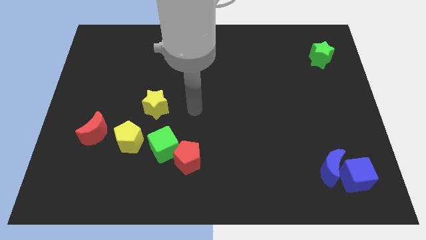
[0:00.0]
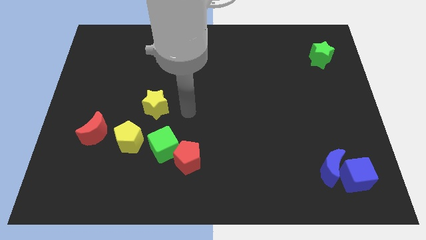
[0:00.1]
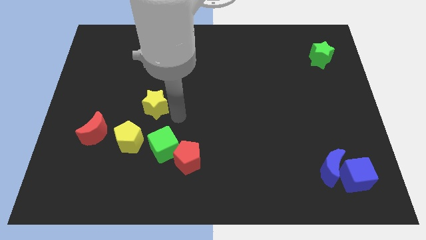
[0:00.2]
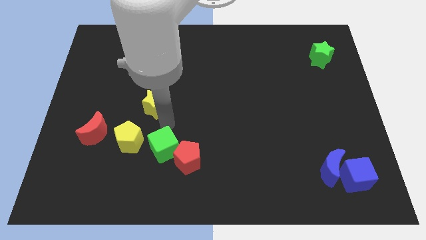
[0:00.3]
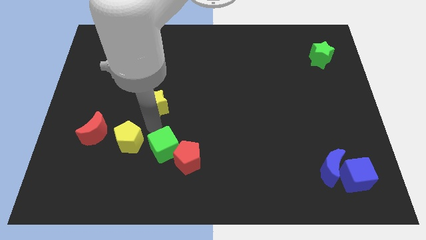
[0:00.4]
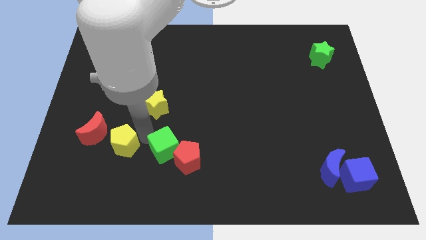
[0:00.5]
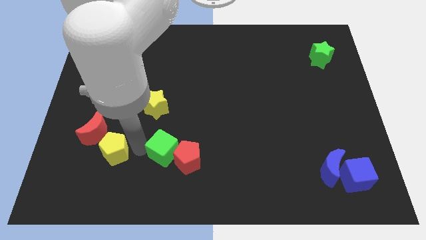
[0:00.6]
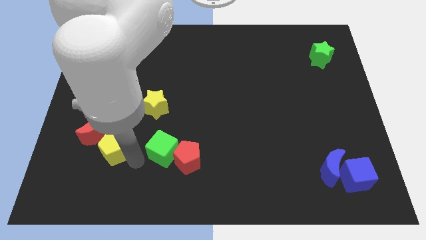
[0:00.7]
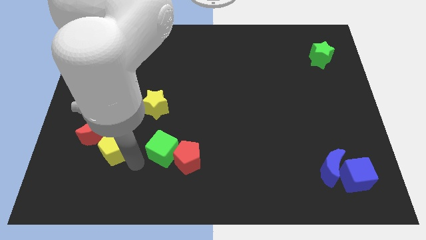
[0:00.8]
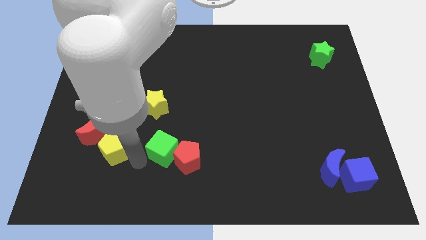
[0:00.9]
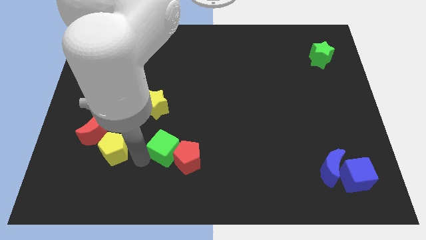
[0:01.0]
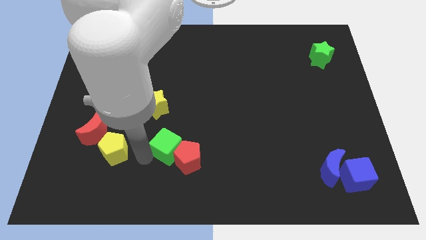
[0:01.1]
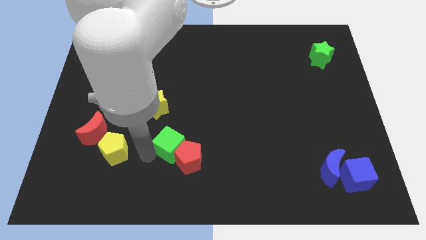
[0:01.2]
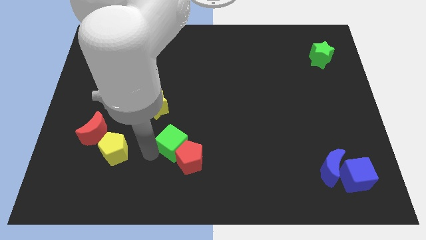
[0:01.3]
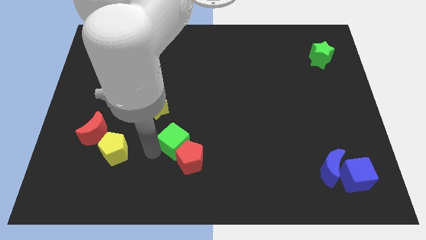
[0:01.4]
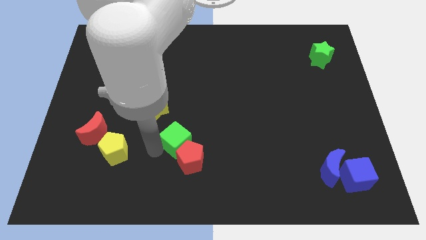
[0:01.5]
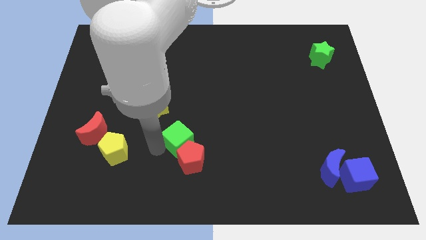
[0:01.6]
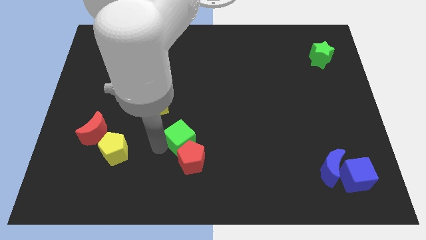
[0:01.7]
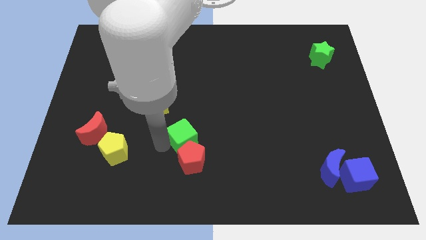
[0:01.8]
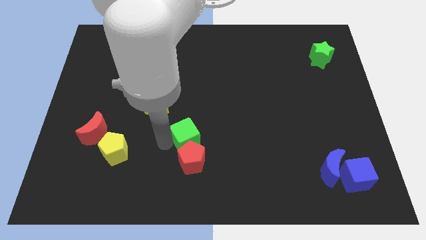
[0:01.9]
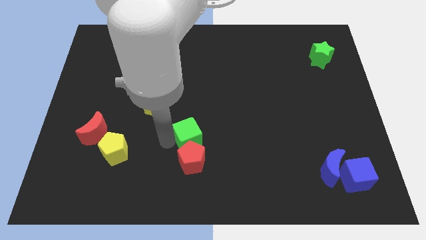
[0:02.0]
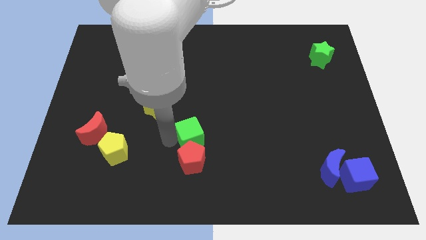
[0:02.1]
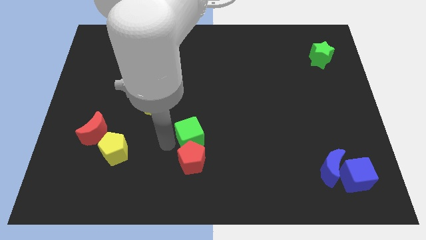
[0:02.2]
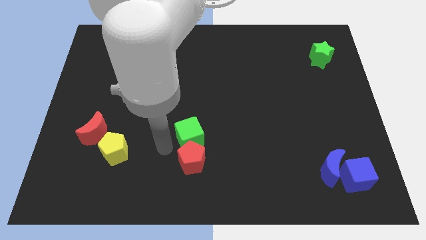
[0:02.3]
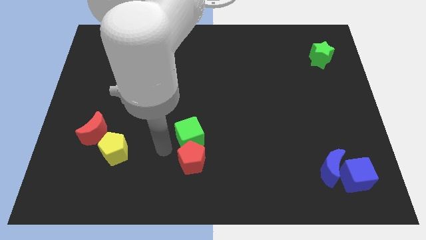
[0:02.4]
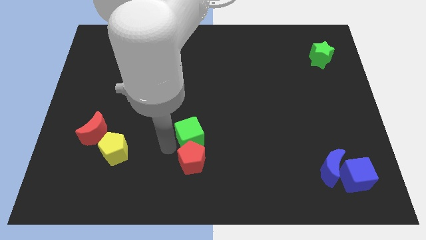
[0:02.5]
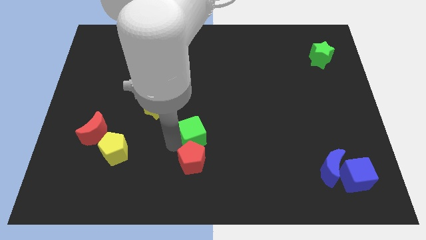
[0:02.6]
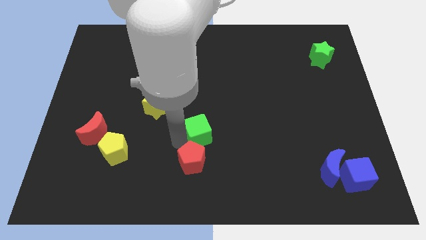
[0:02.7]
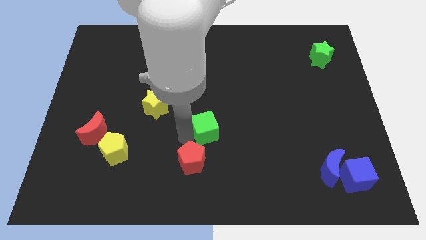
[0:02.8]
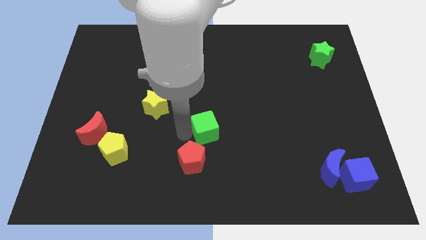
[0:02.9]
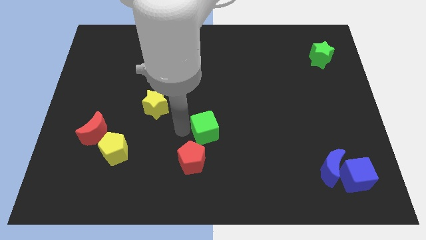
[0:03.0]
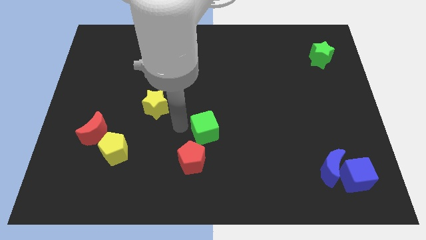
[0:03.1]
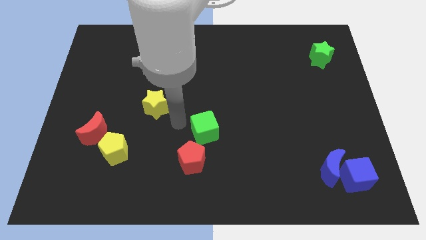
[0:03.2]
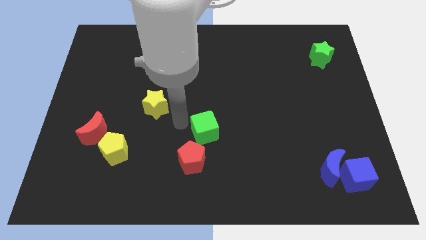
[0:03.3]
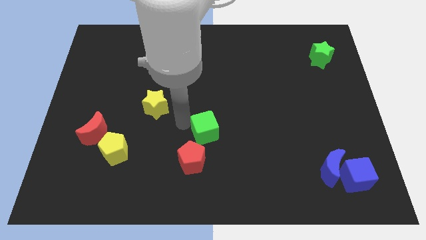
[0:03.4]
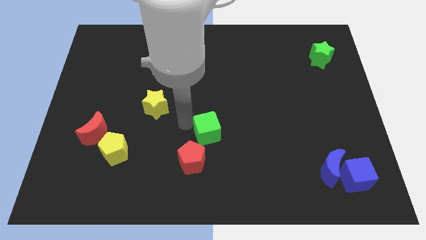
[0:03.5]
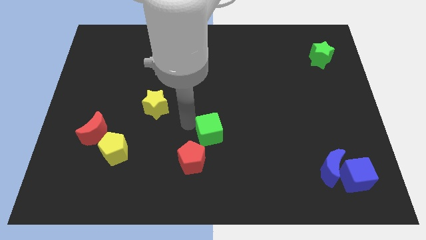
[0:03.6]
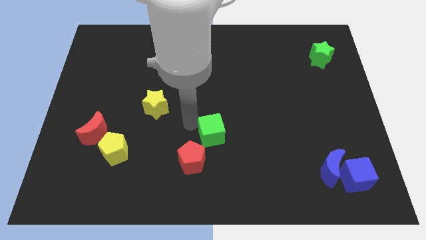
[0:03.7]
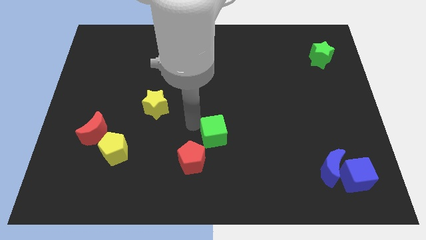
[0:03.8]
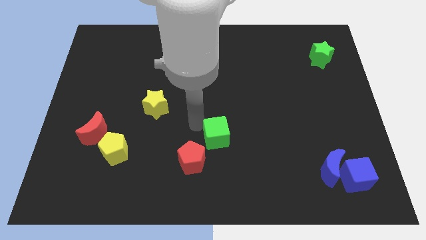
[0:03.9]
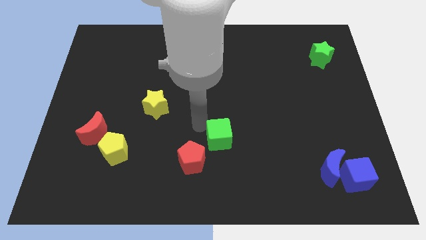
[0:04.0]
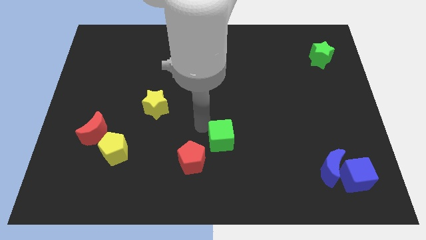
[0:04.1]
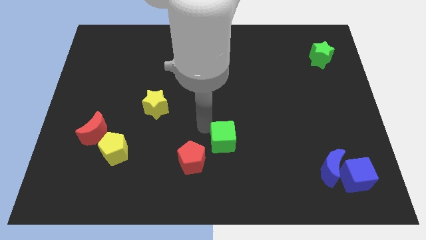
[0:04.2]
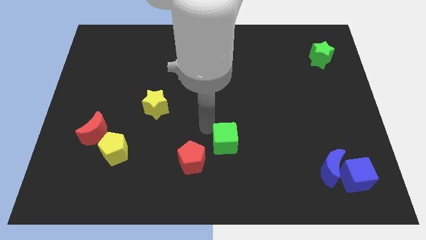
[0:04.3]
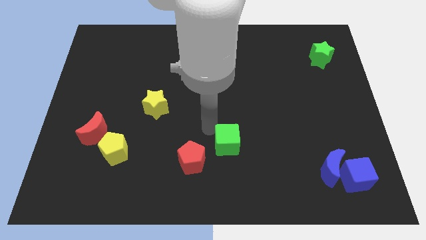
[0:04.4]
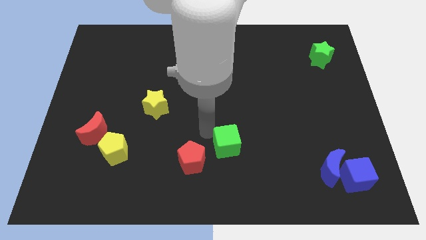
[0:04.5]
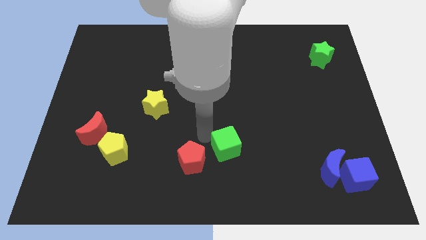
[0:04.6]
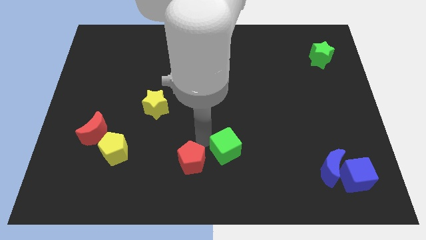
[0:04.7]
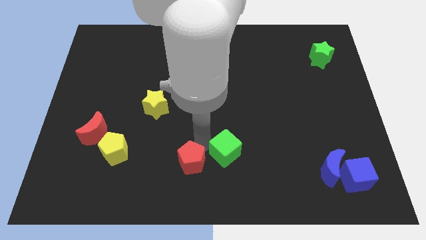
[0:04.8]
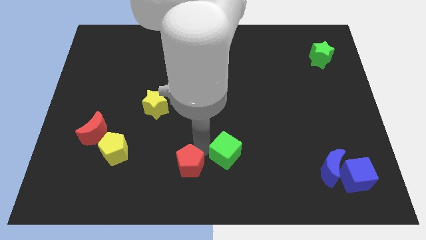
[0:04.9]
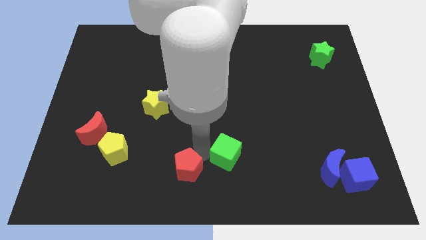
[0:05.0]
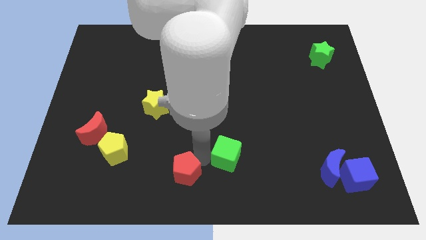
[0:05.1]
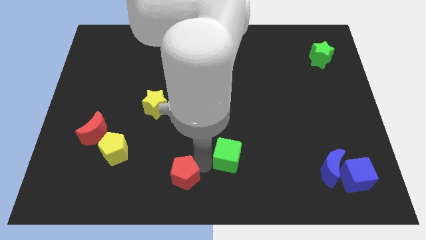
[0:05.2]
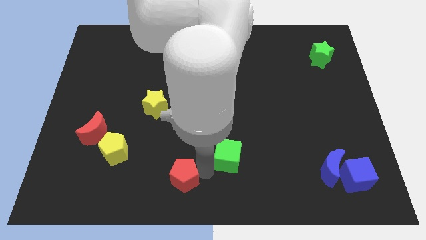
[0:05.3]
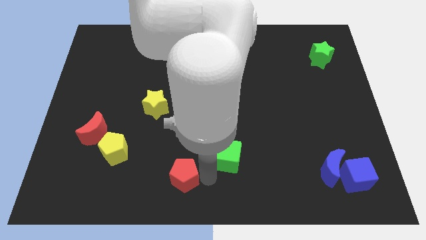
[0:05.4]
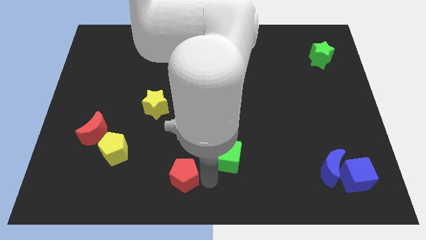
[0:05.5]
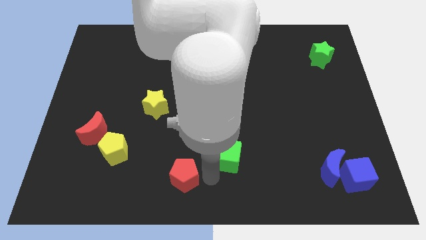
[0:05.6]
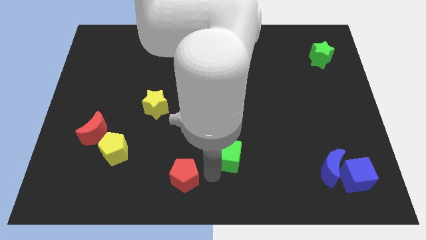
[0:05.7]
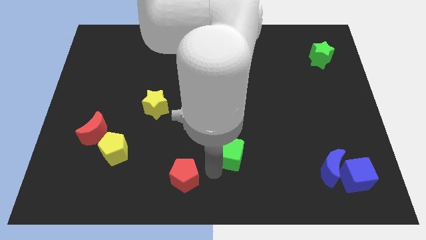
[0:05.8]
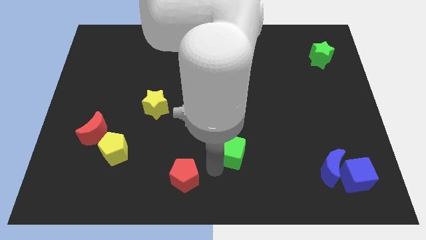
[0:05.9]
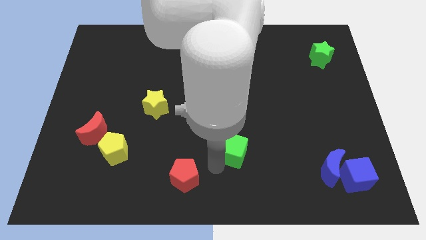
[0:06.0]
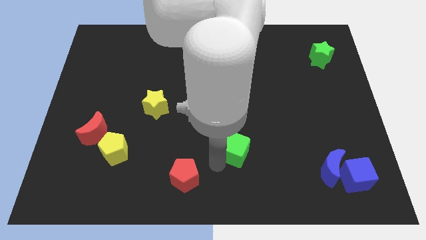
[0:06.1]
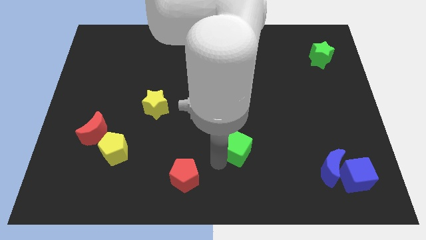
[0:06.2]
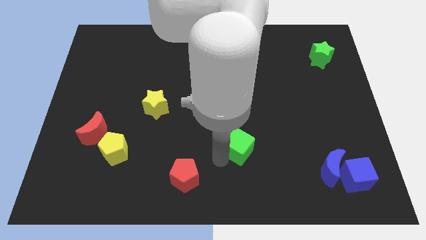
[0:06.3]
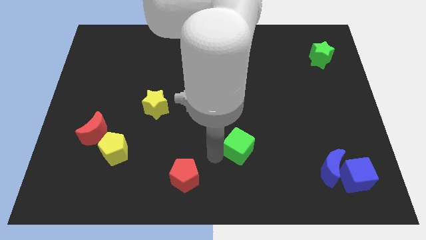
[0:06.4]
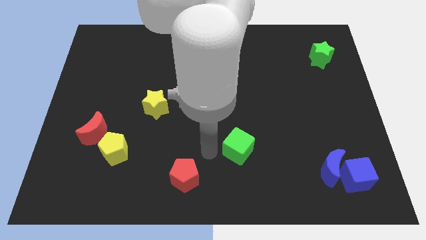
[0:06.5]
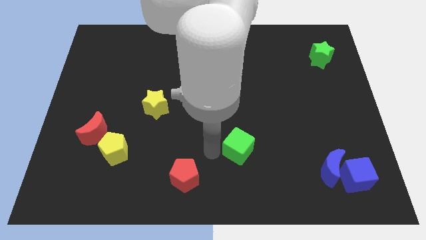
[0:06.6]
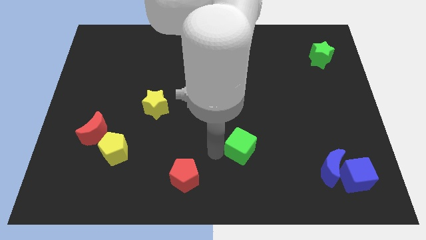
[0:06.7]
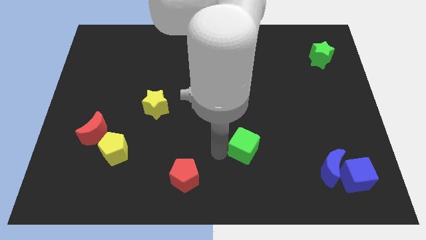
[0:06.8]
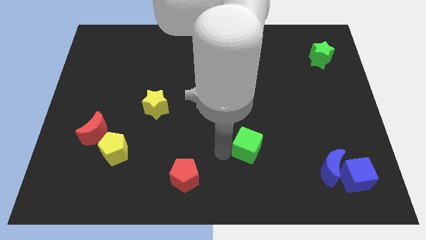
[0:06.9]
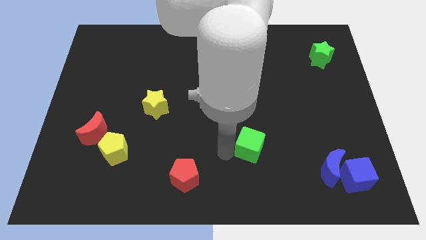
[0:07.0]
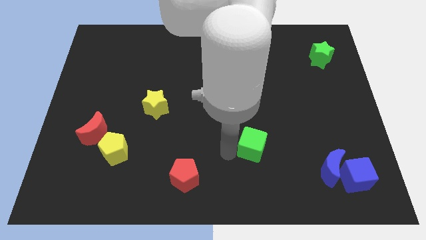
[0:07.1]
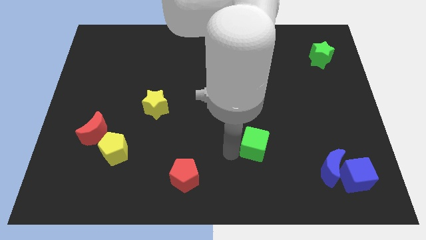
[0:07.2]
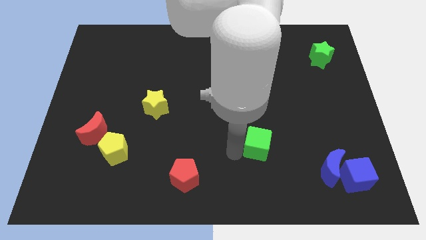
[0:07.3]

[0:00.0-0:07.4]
slide the green cube to the right

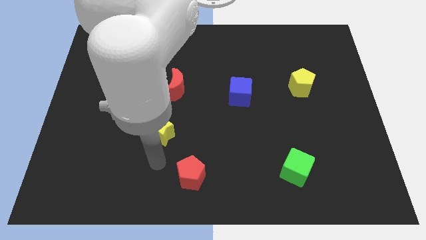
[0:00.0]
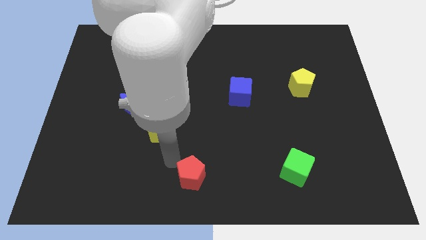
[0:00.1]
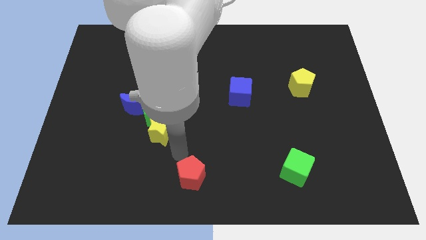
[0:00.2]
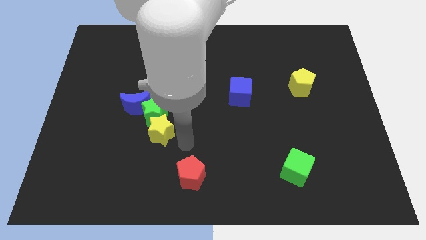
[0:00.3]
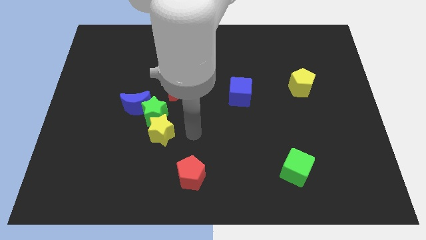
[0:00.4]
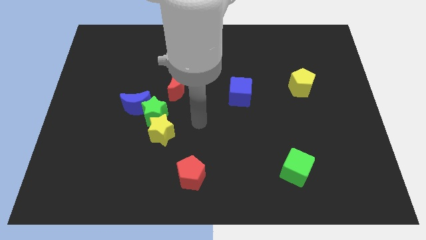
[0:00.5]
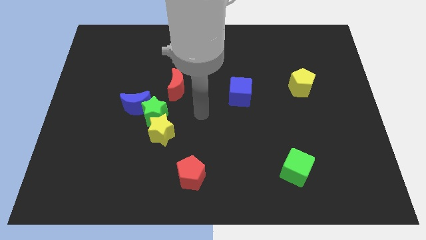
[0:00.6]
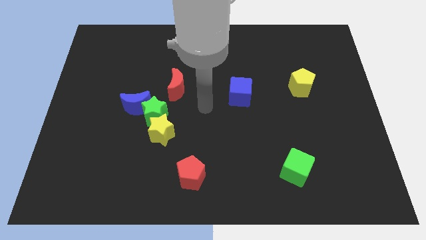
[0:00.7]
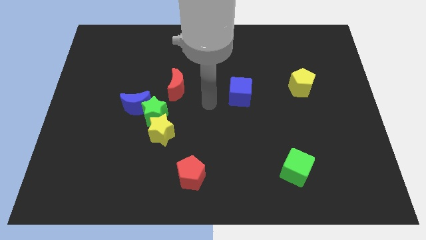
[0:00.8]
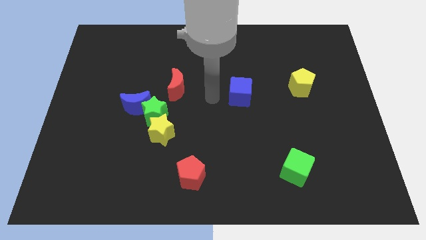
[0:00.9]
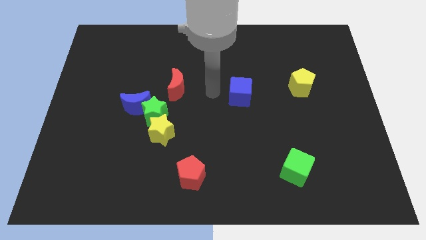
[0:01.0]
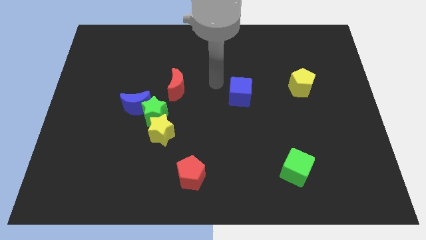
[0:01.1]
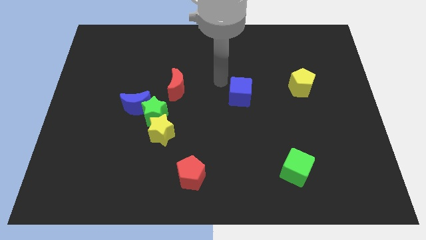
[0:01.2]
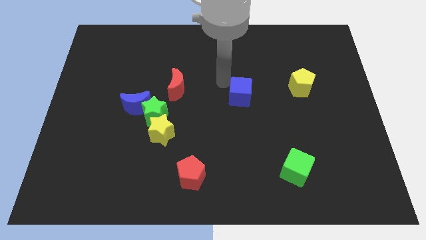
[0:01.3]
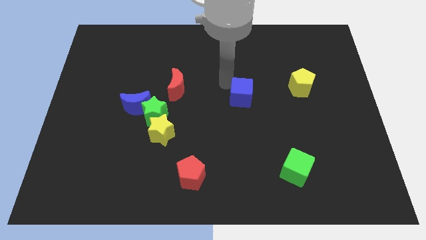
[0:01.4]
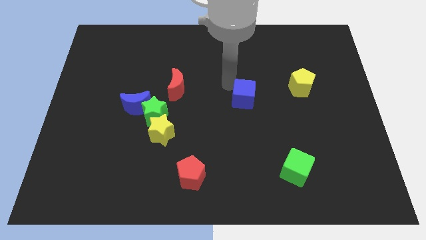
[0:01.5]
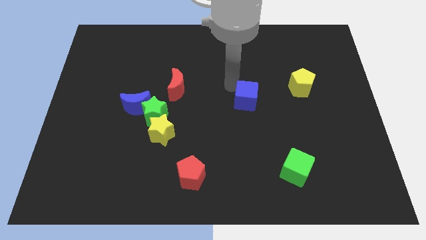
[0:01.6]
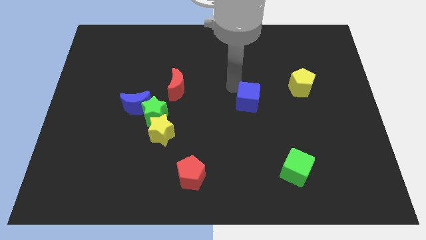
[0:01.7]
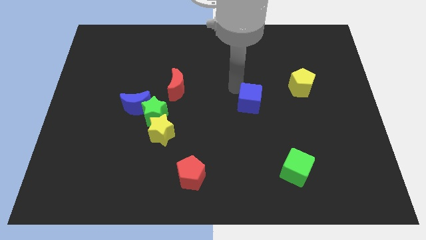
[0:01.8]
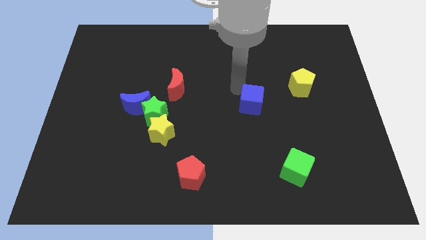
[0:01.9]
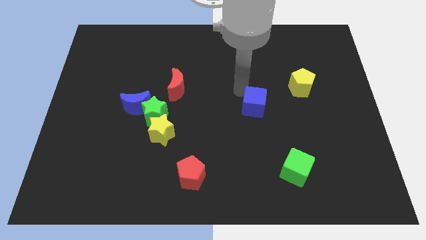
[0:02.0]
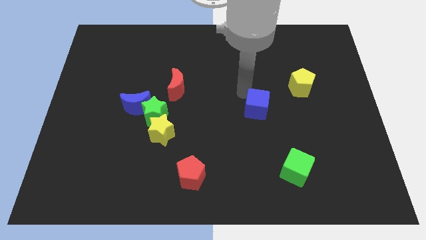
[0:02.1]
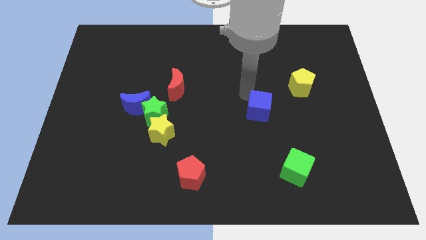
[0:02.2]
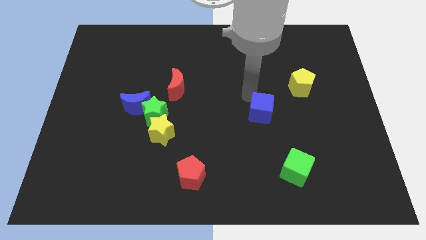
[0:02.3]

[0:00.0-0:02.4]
move the blue cube diagonally downwards and right a bit
